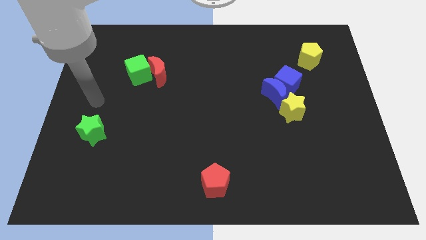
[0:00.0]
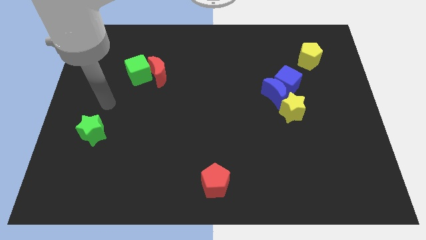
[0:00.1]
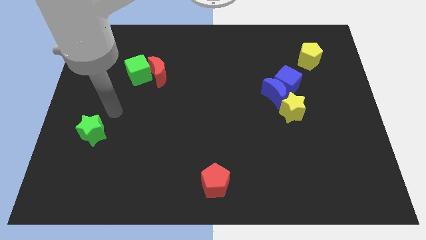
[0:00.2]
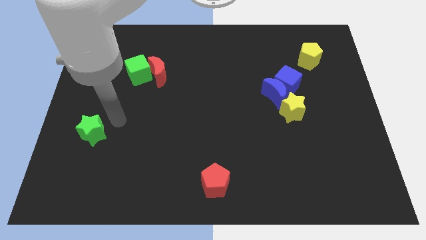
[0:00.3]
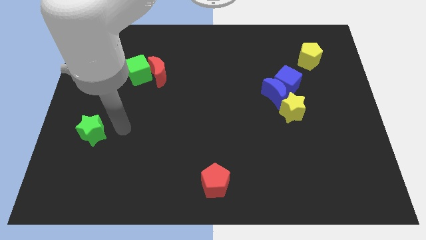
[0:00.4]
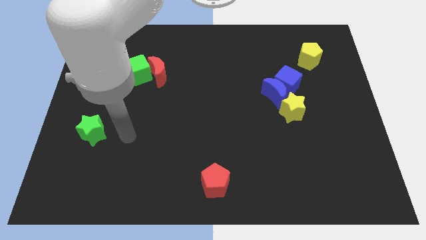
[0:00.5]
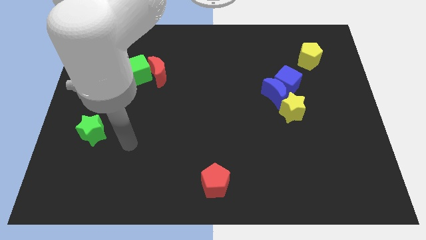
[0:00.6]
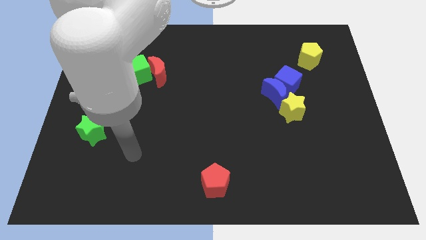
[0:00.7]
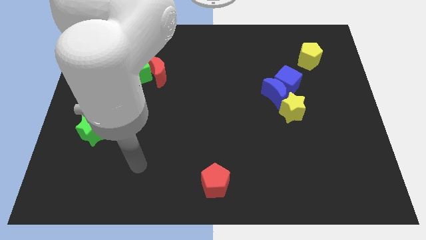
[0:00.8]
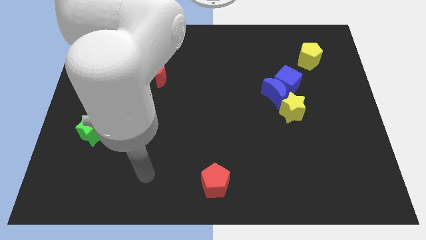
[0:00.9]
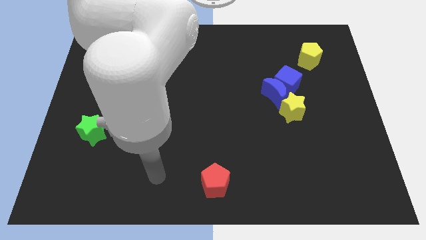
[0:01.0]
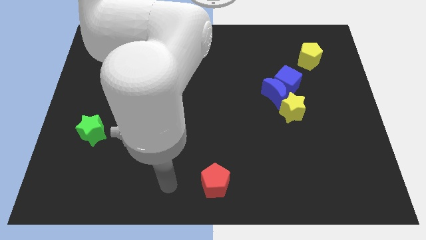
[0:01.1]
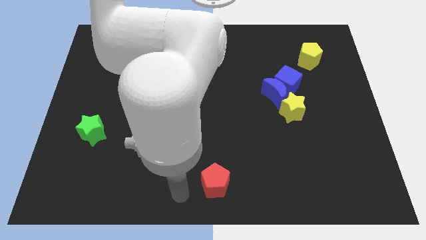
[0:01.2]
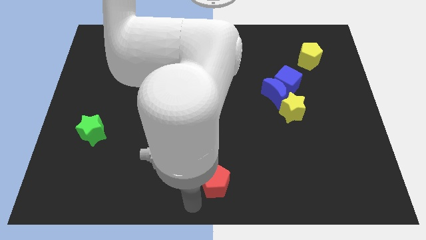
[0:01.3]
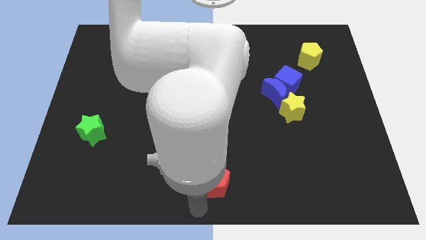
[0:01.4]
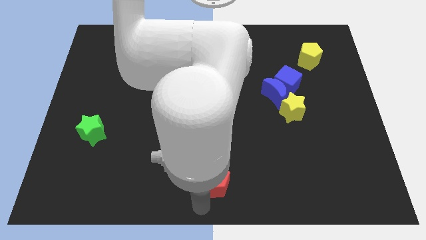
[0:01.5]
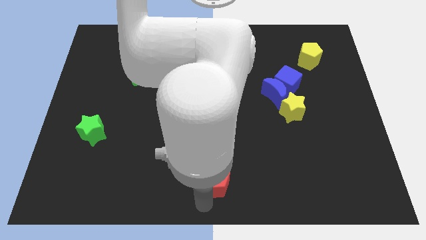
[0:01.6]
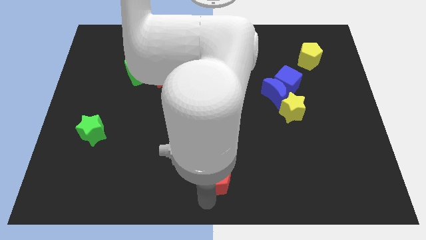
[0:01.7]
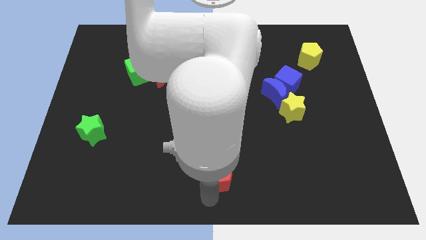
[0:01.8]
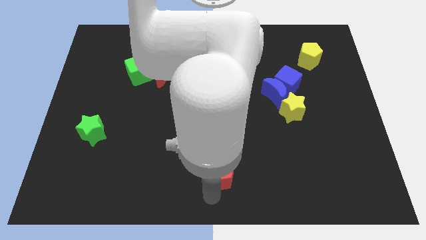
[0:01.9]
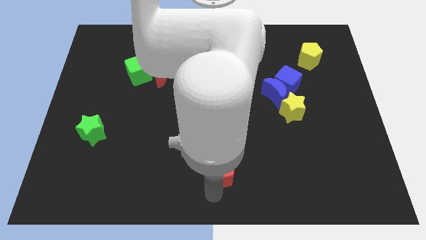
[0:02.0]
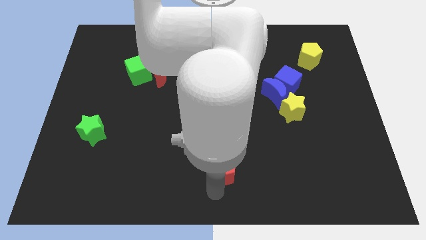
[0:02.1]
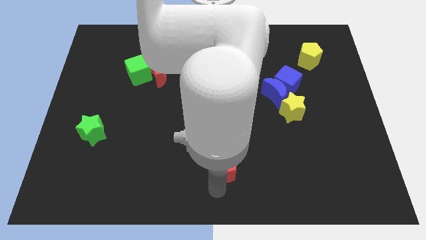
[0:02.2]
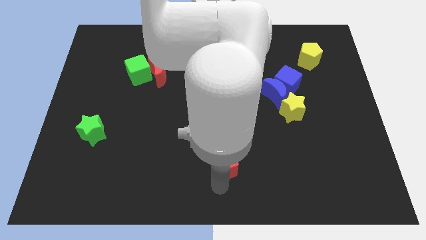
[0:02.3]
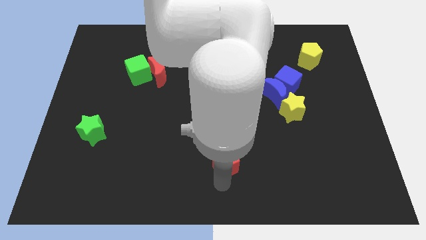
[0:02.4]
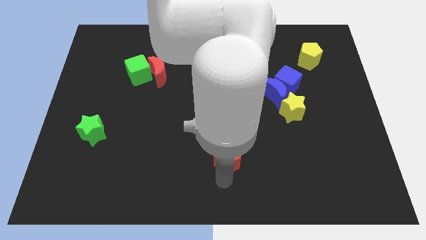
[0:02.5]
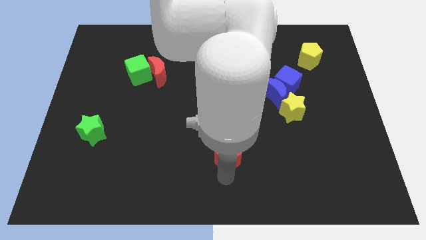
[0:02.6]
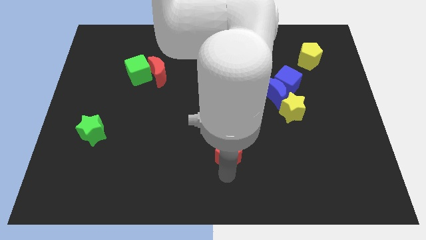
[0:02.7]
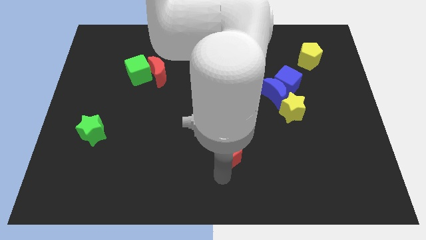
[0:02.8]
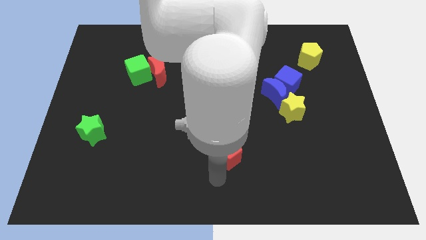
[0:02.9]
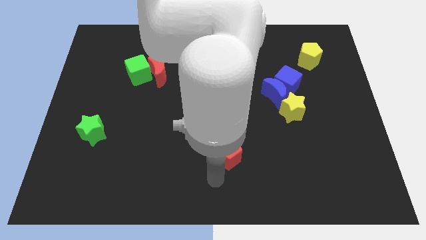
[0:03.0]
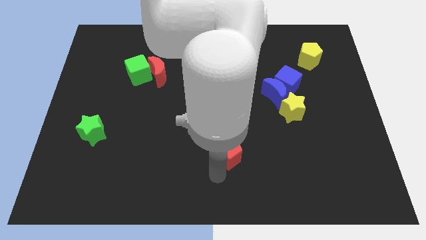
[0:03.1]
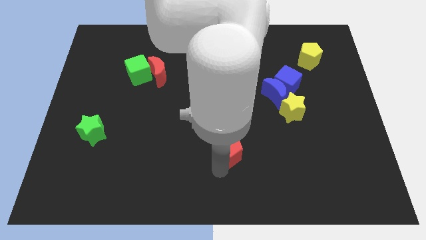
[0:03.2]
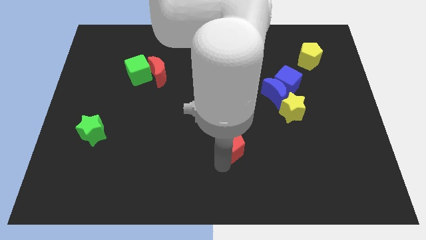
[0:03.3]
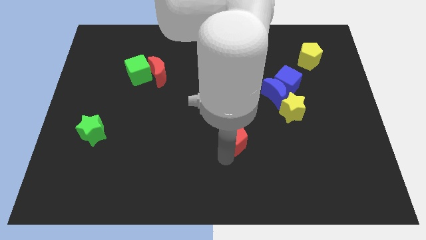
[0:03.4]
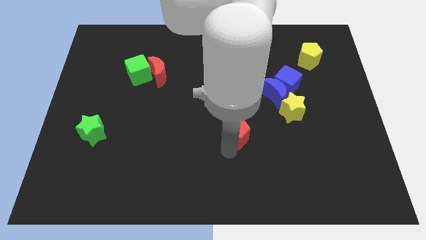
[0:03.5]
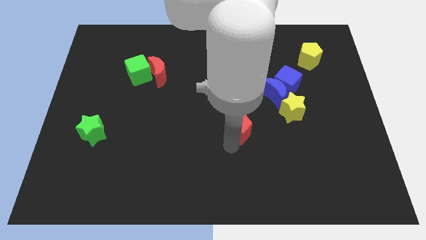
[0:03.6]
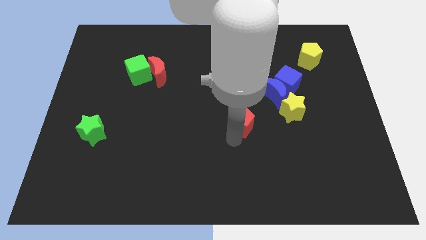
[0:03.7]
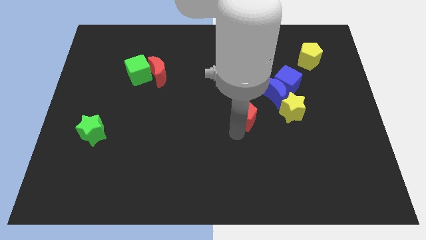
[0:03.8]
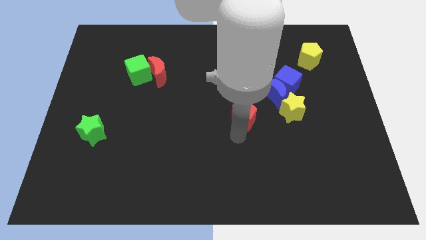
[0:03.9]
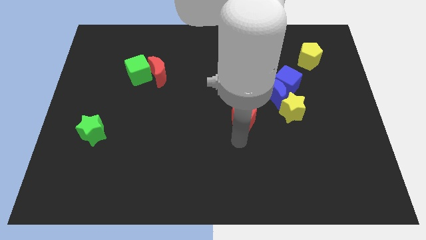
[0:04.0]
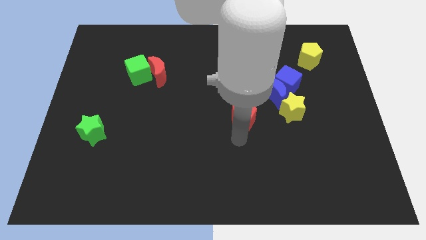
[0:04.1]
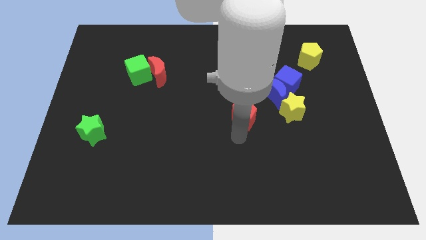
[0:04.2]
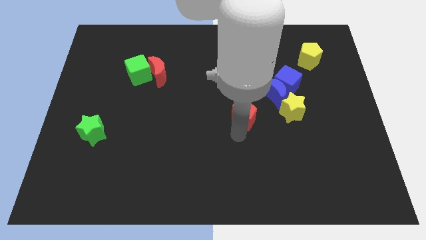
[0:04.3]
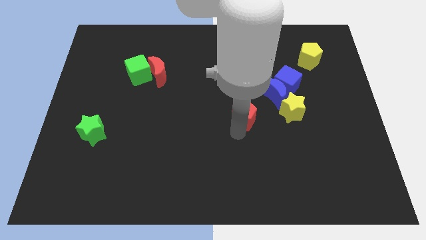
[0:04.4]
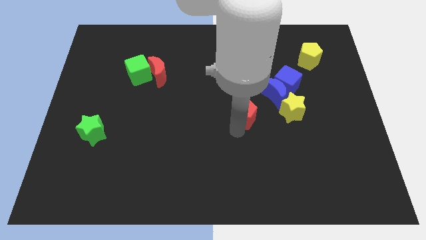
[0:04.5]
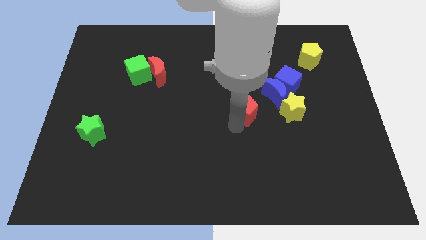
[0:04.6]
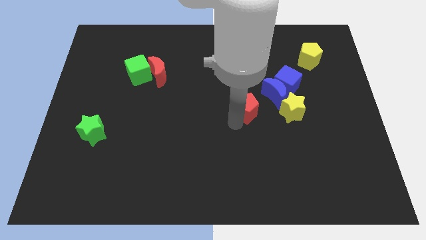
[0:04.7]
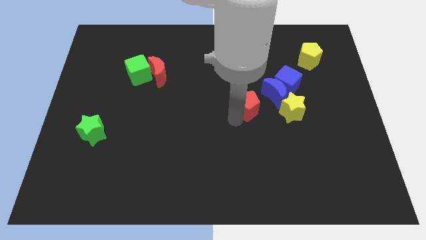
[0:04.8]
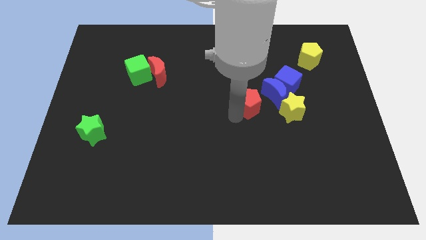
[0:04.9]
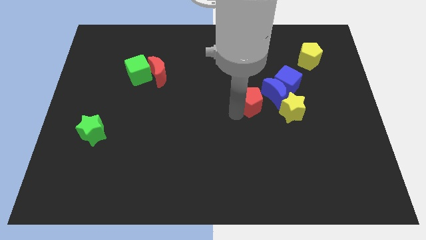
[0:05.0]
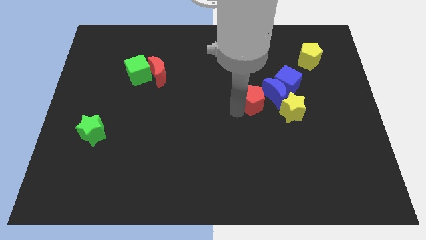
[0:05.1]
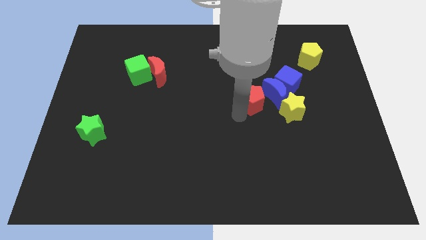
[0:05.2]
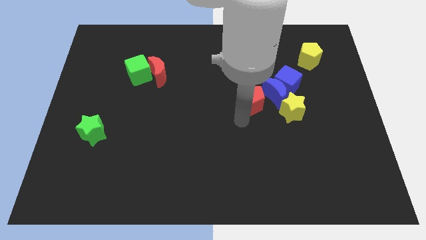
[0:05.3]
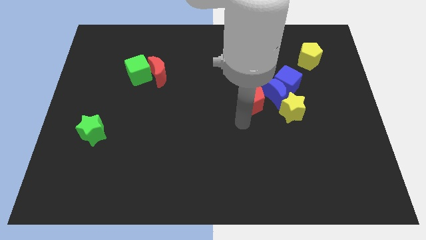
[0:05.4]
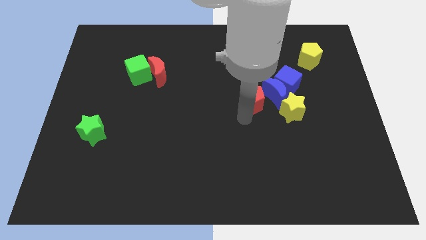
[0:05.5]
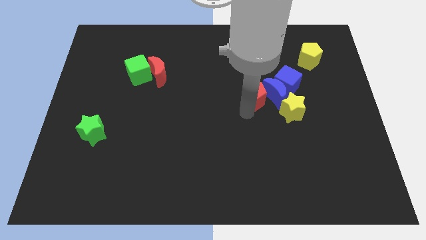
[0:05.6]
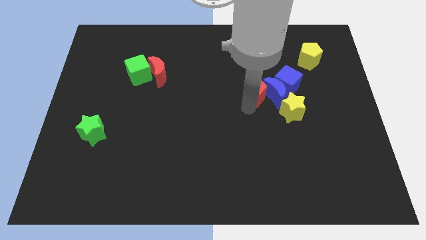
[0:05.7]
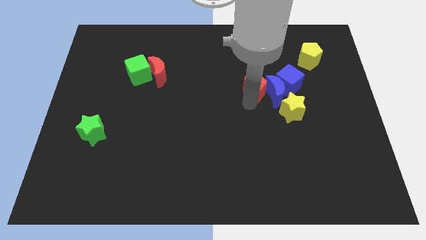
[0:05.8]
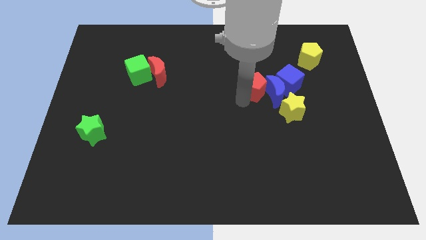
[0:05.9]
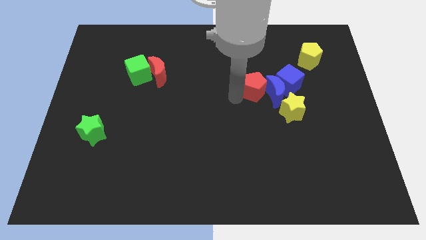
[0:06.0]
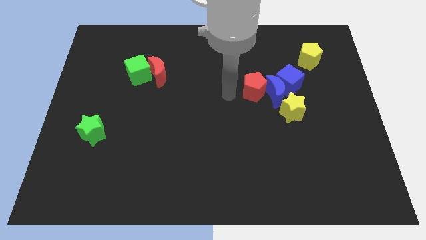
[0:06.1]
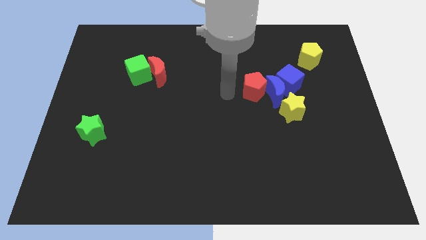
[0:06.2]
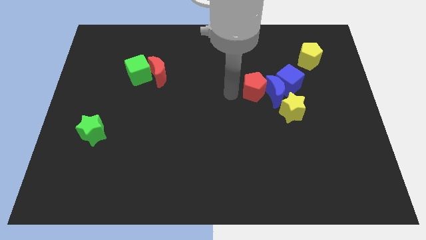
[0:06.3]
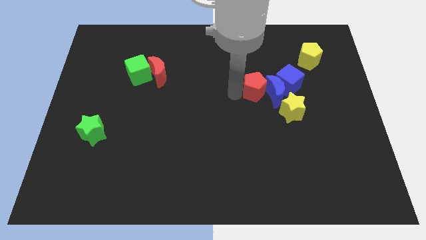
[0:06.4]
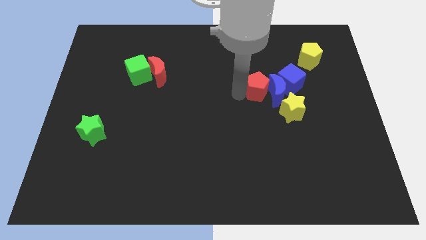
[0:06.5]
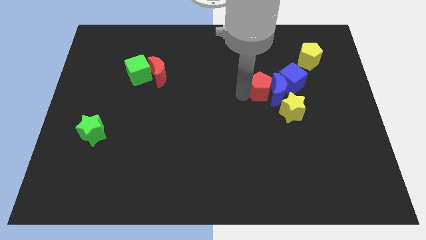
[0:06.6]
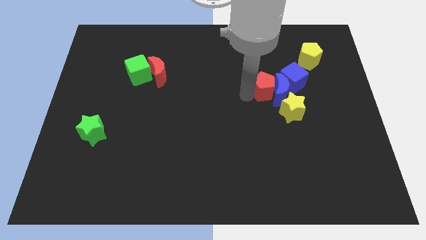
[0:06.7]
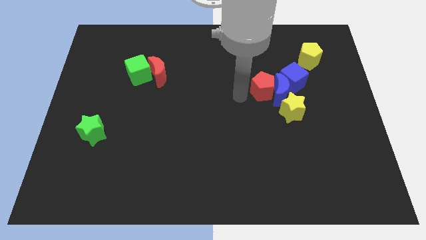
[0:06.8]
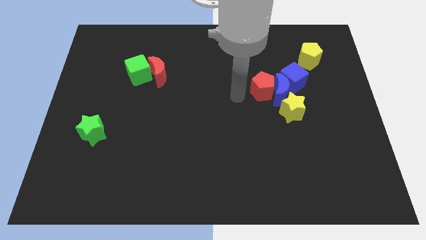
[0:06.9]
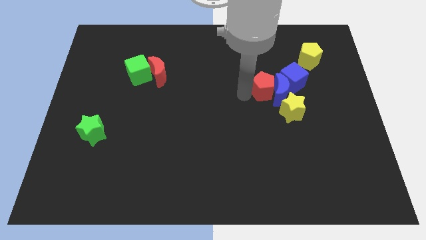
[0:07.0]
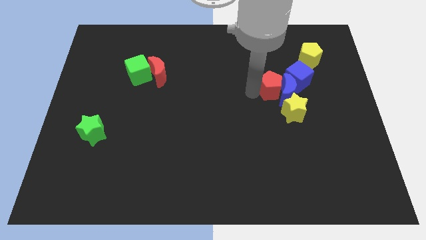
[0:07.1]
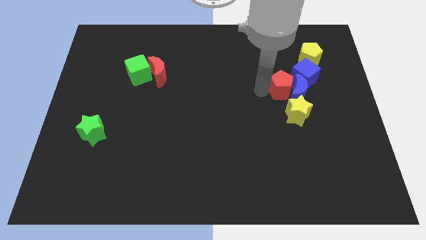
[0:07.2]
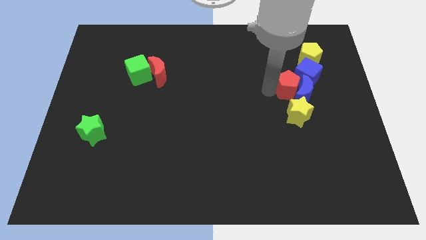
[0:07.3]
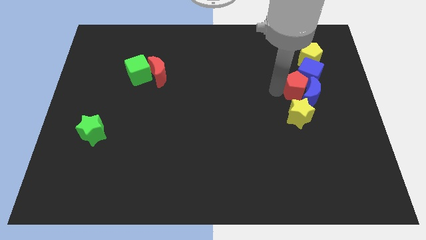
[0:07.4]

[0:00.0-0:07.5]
move the red pentagon towards the blue cube

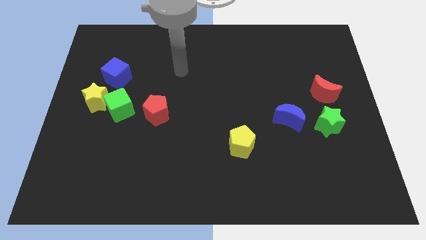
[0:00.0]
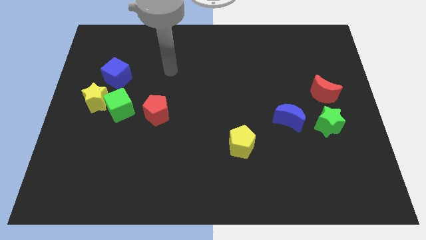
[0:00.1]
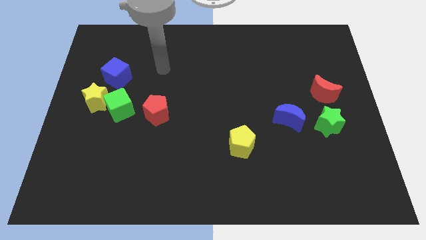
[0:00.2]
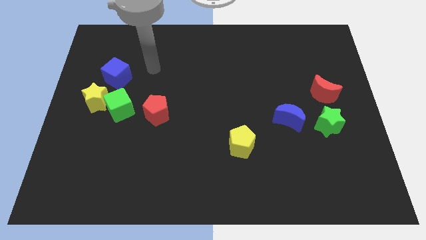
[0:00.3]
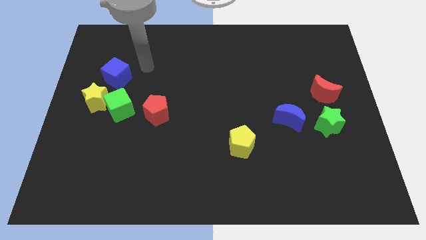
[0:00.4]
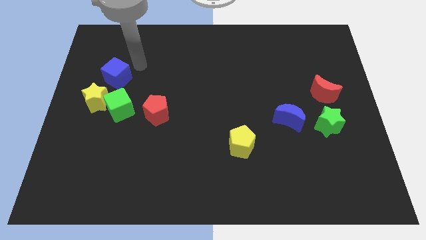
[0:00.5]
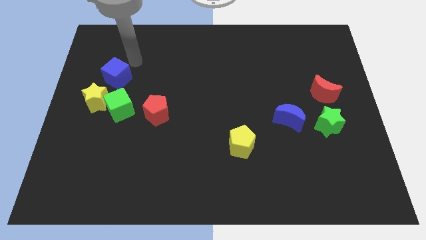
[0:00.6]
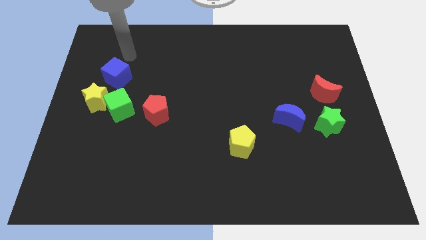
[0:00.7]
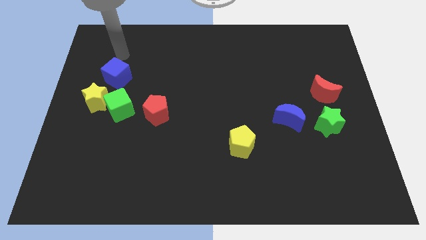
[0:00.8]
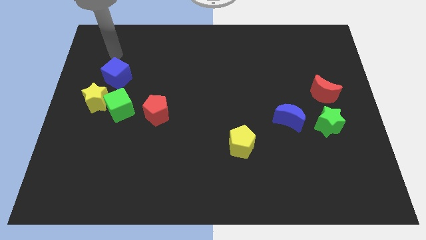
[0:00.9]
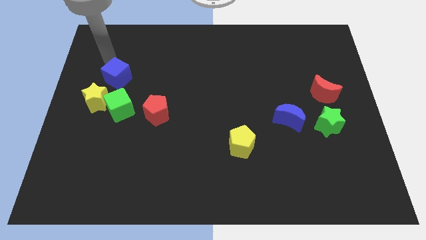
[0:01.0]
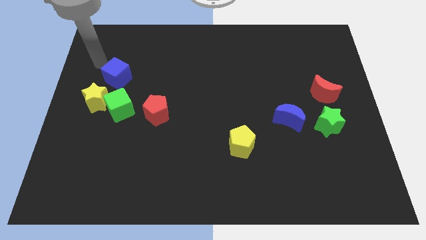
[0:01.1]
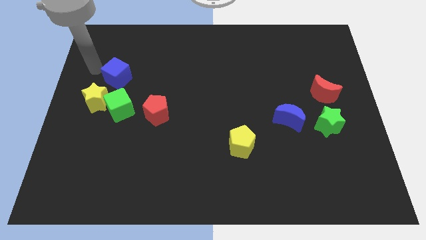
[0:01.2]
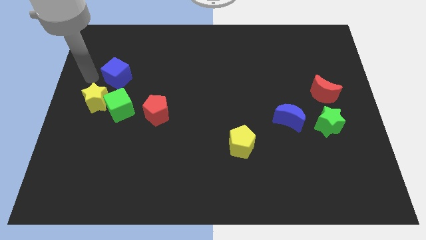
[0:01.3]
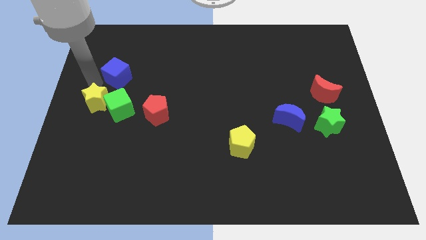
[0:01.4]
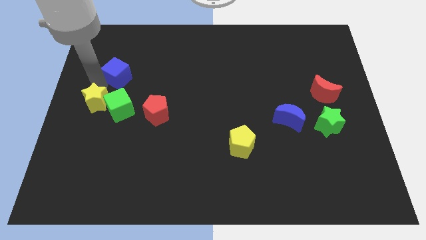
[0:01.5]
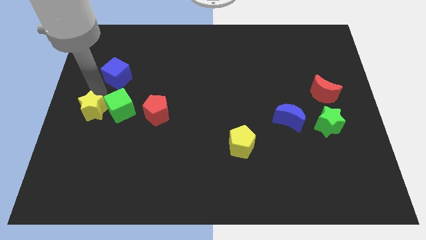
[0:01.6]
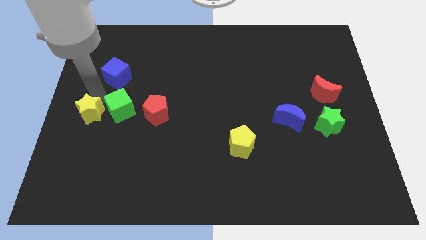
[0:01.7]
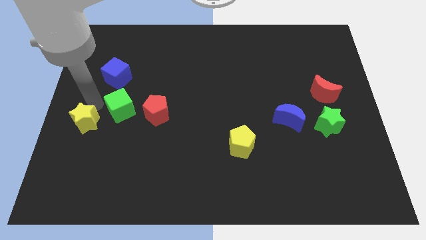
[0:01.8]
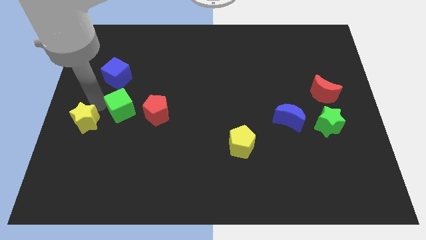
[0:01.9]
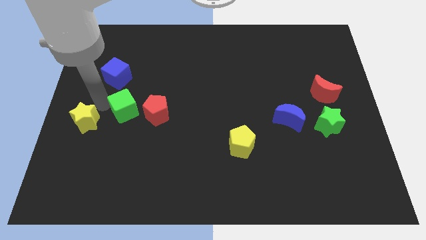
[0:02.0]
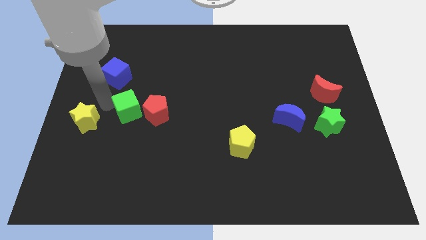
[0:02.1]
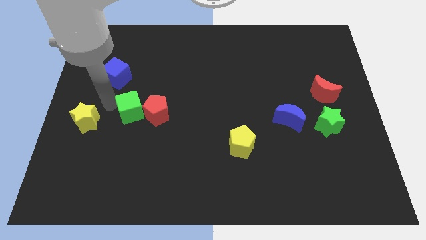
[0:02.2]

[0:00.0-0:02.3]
put the green cube to the red pentagon
